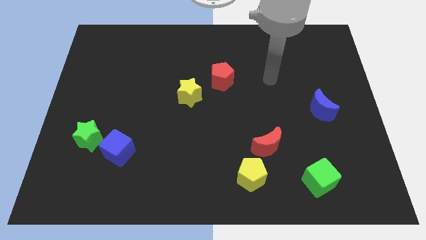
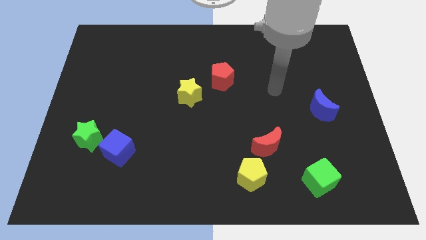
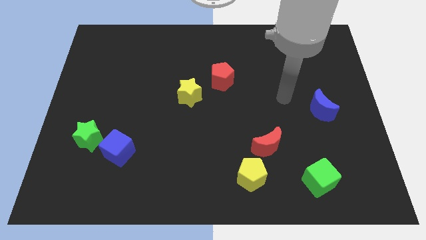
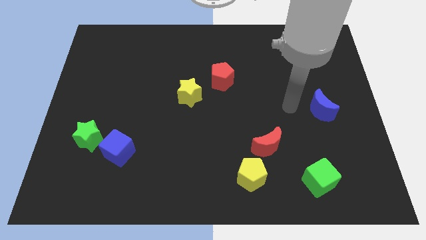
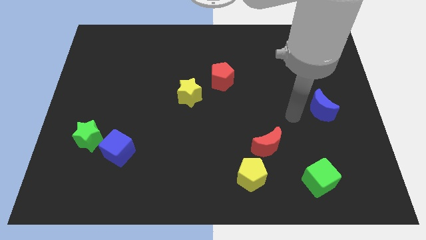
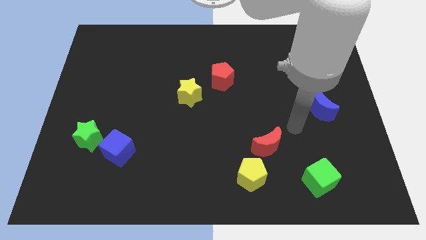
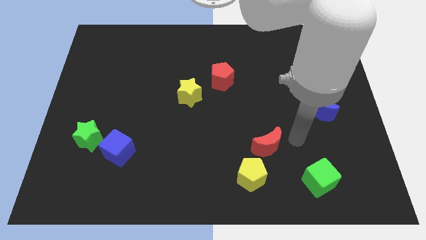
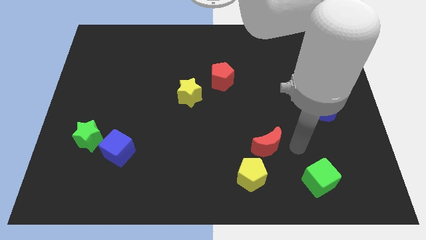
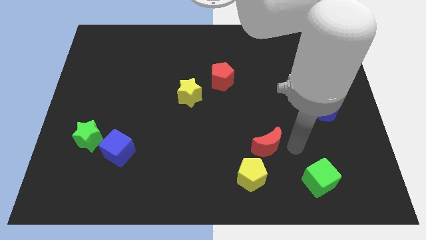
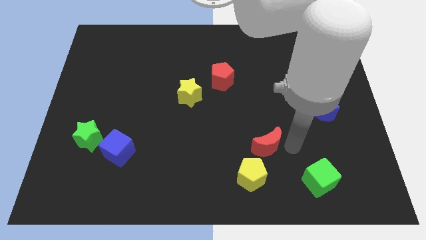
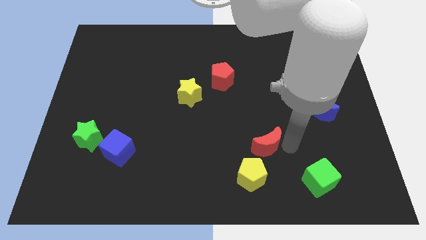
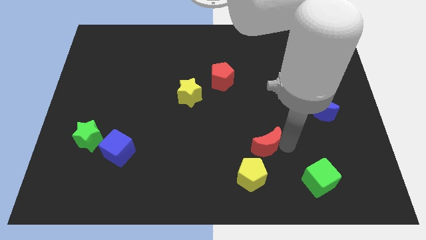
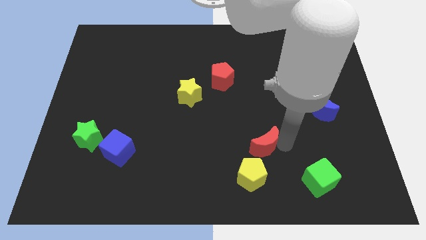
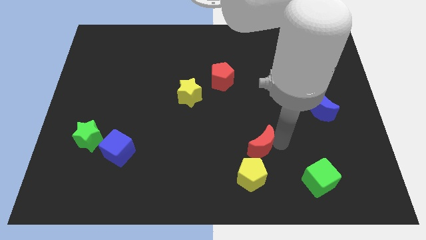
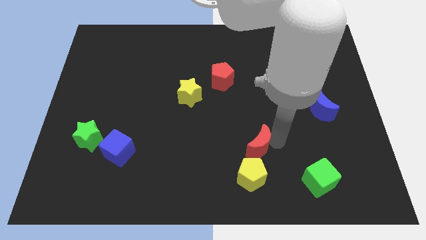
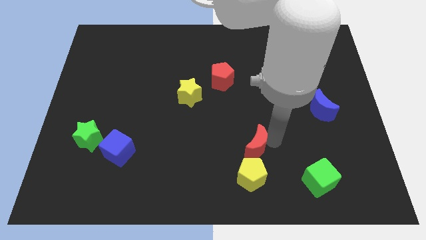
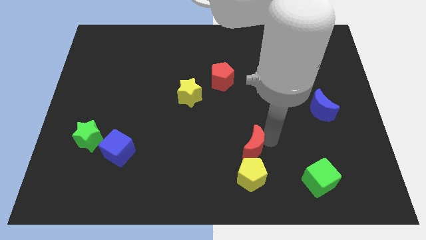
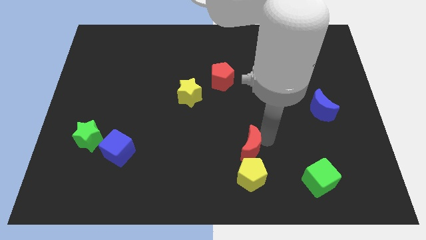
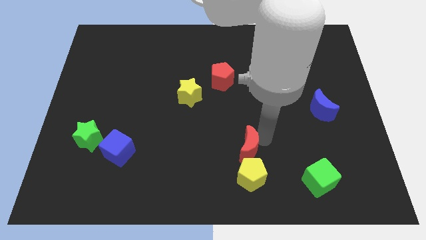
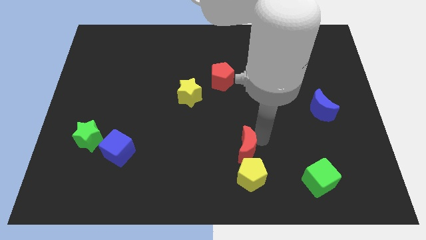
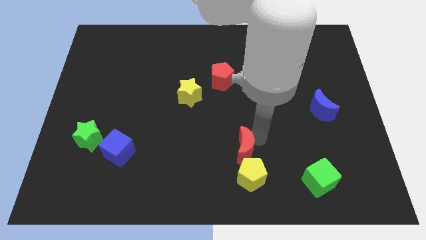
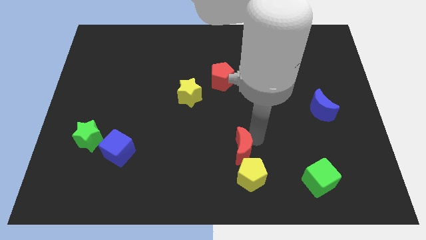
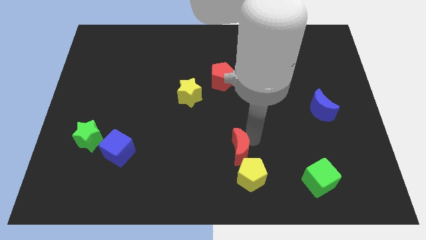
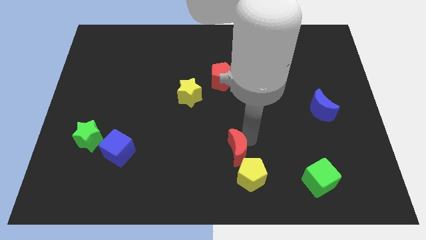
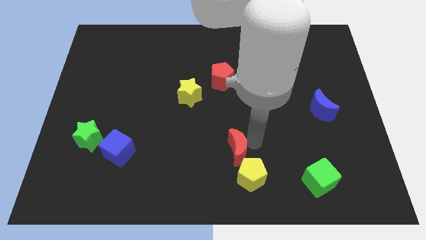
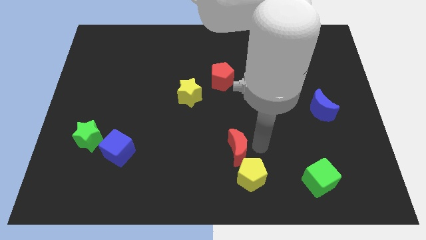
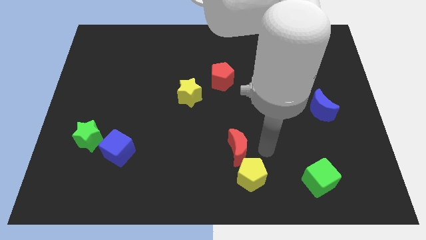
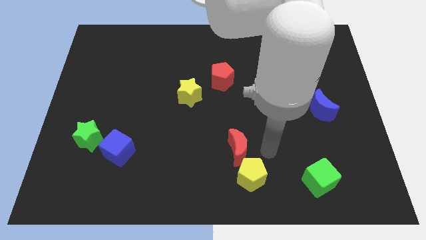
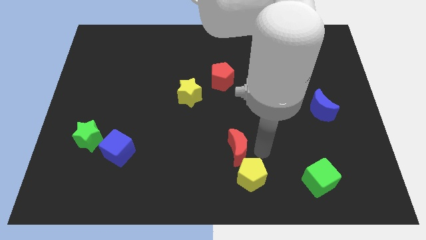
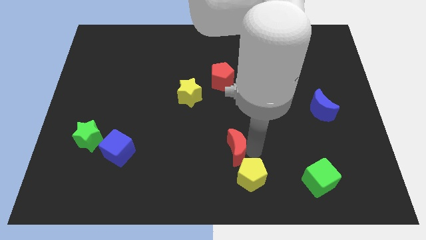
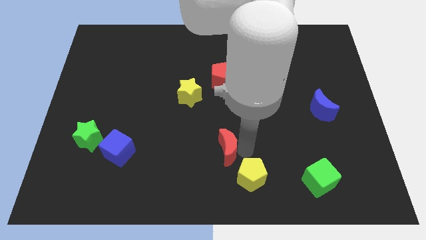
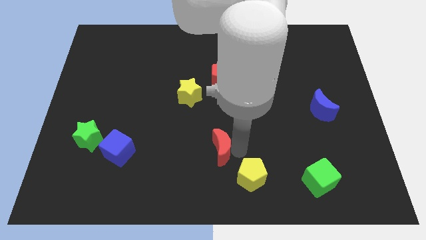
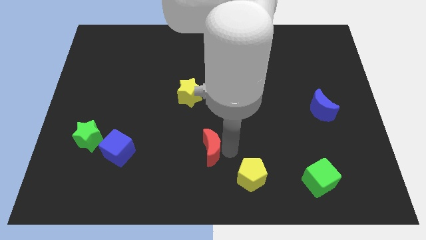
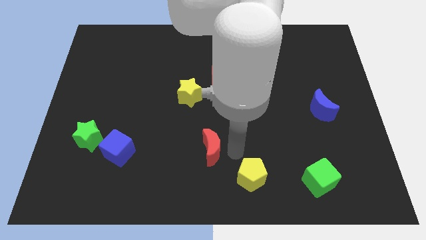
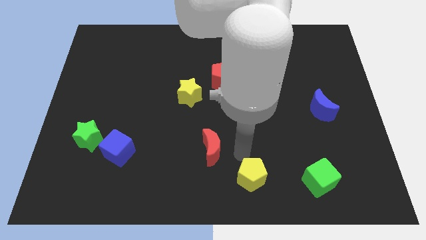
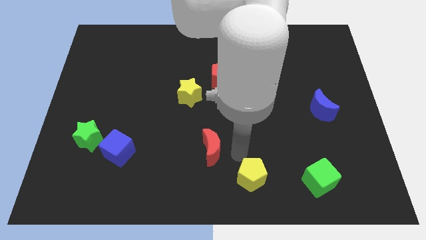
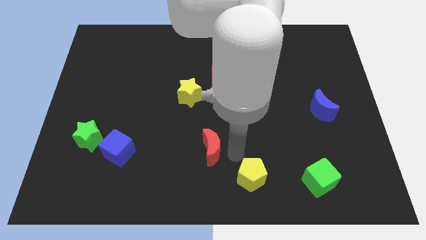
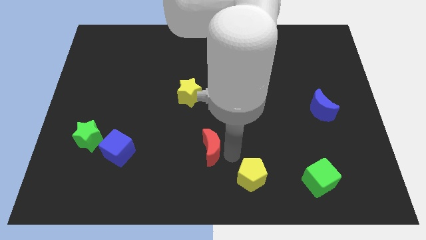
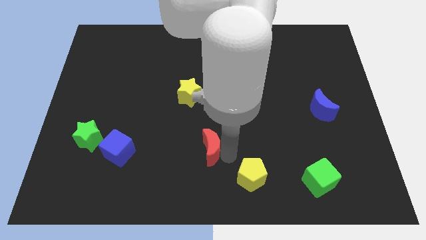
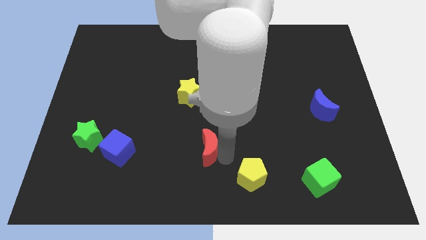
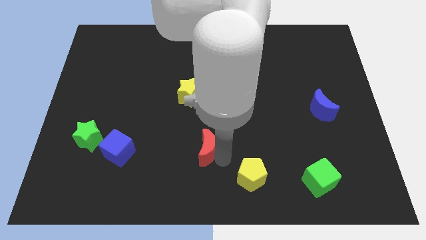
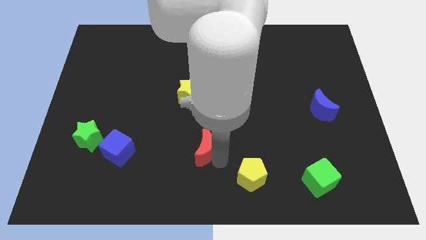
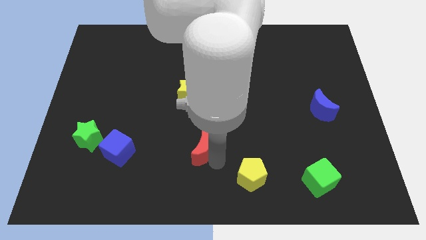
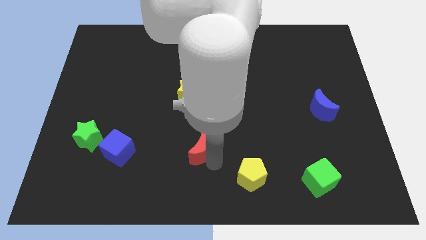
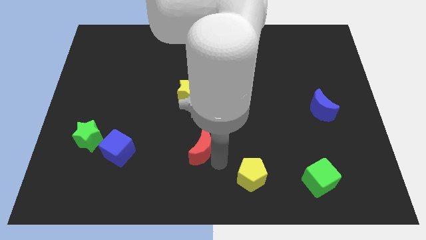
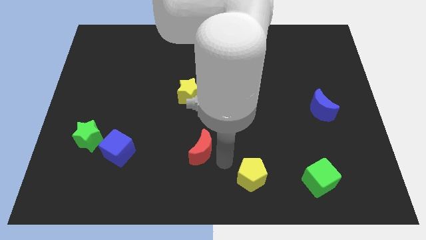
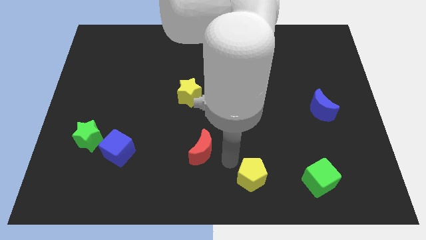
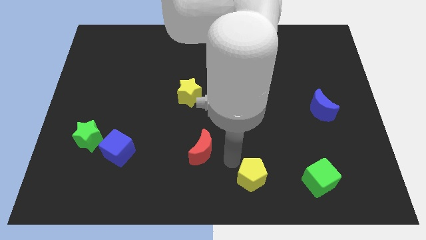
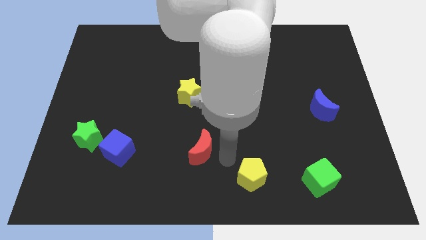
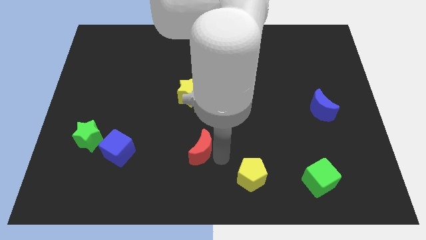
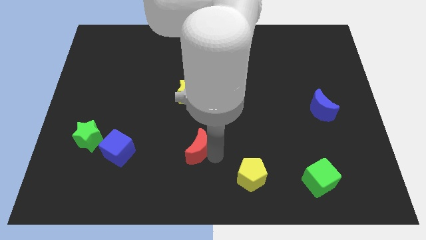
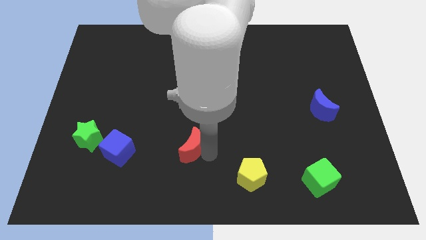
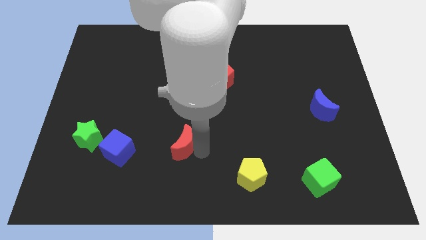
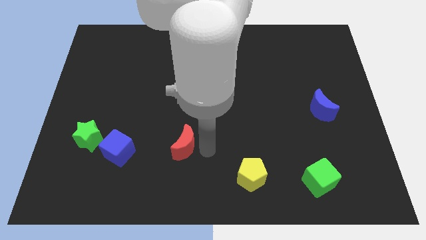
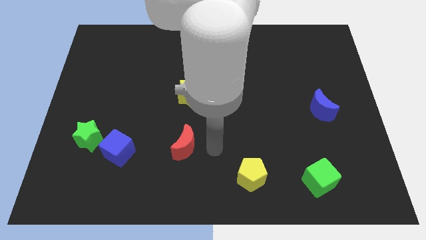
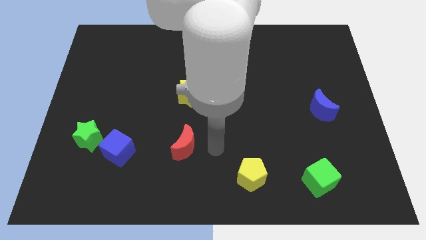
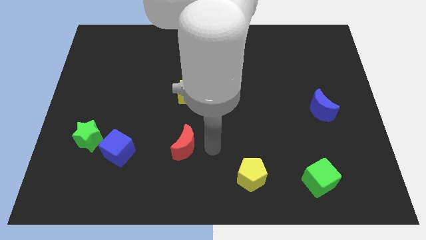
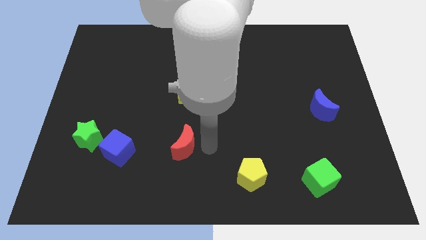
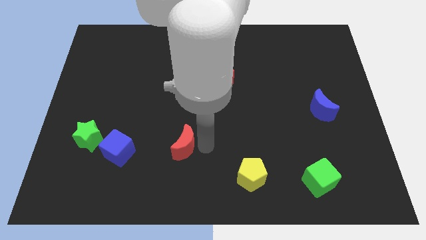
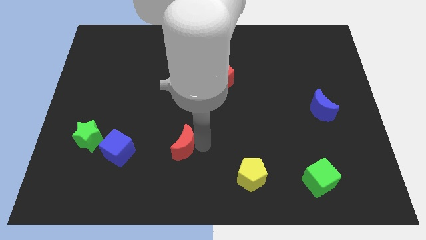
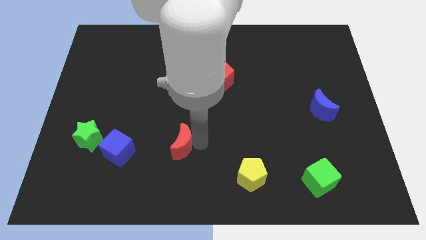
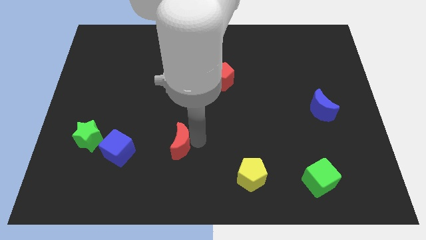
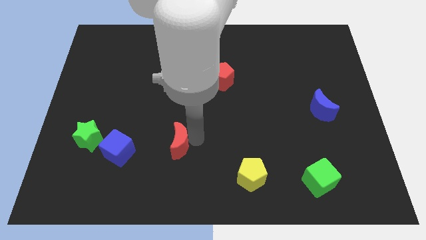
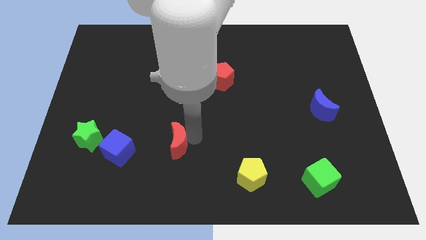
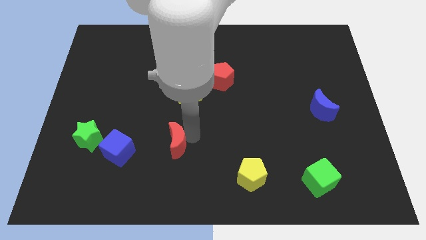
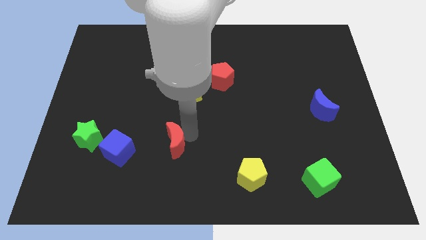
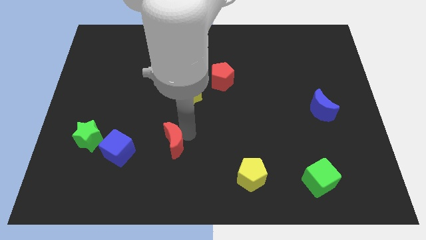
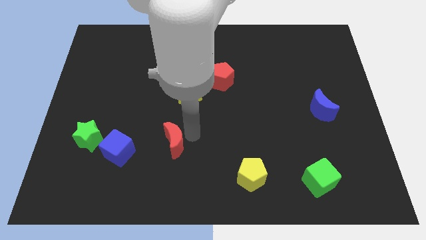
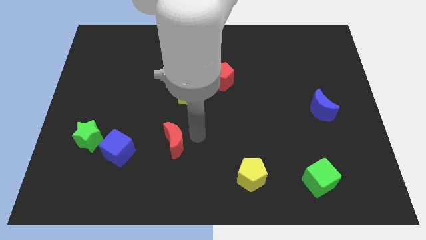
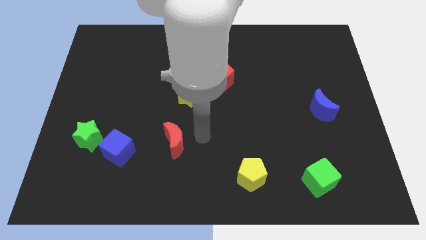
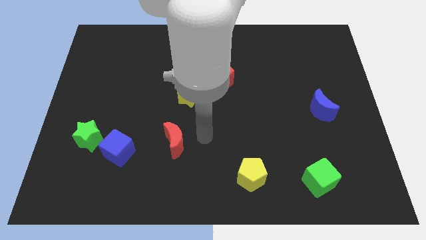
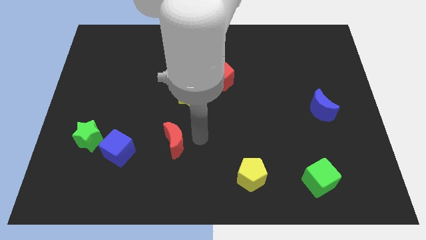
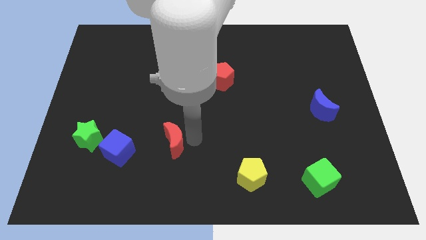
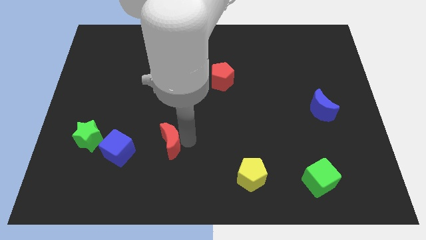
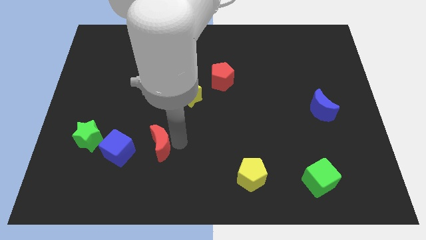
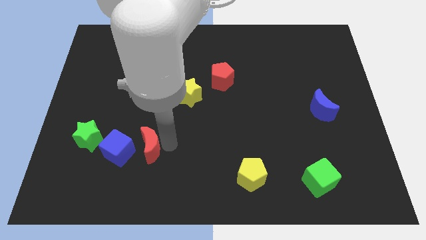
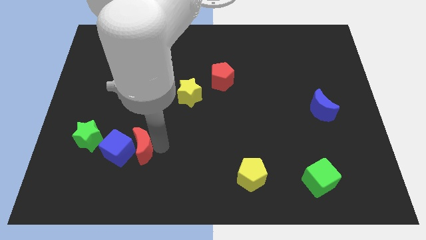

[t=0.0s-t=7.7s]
put the red moon next to the blue cube
